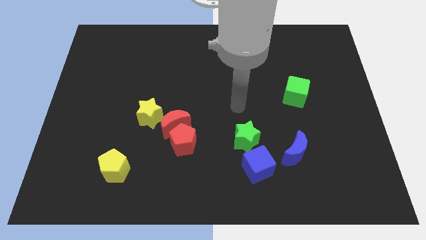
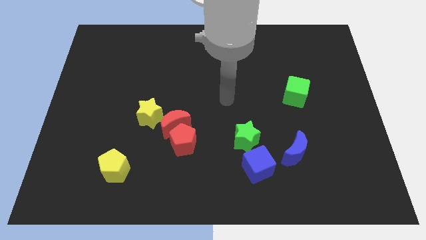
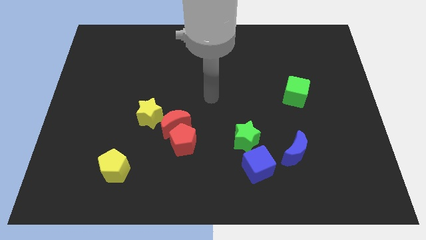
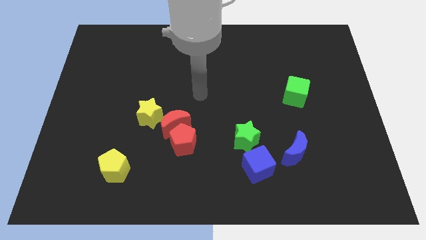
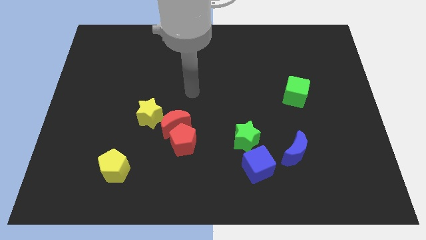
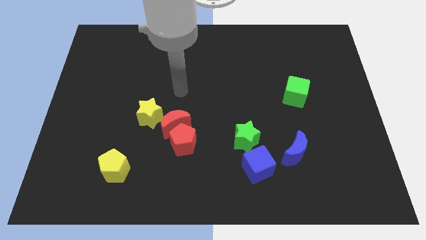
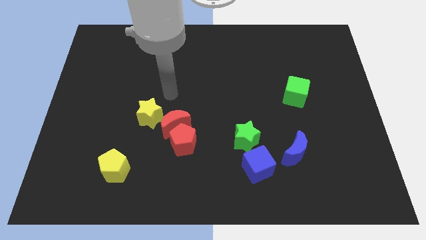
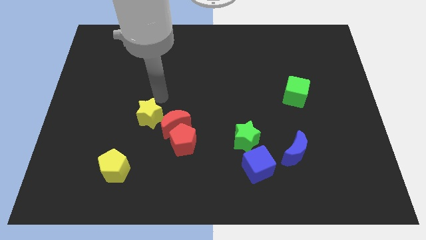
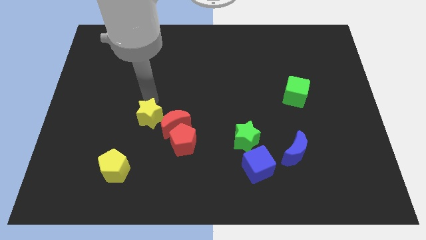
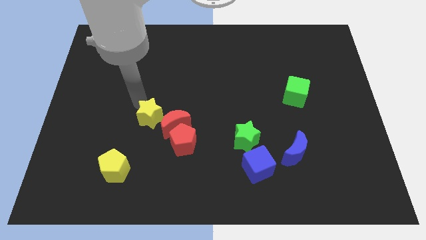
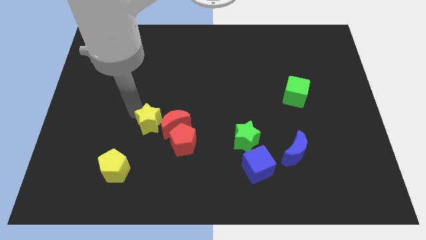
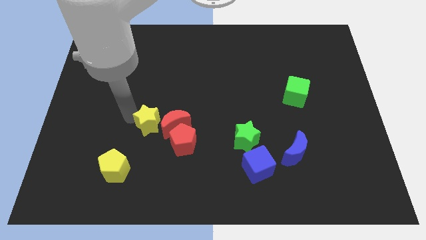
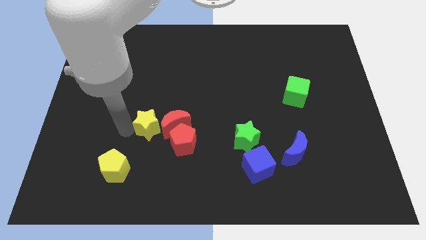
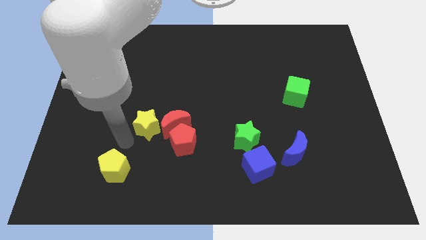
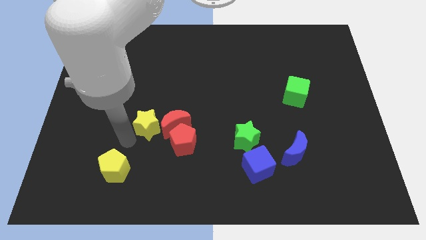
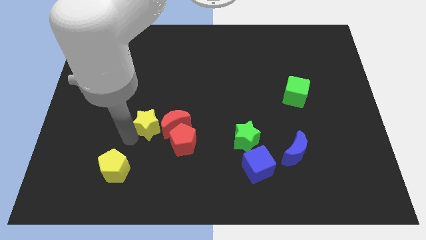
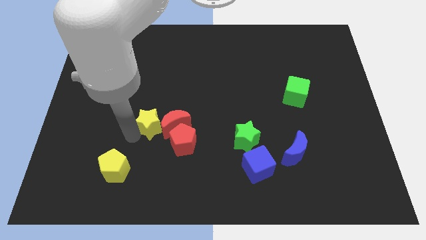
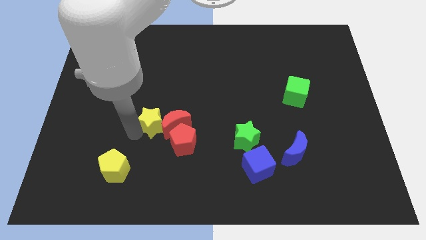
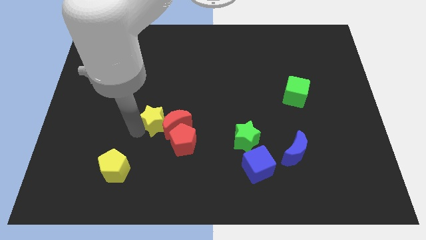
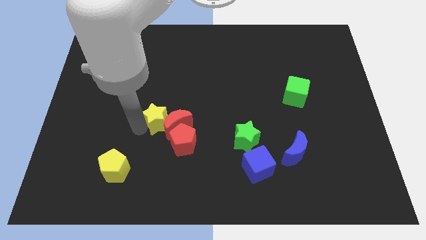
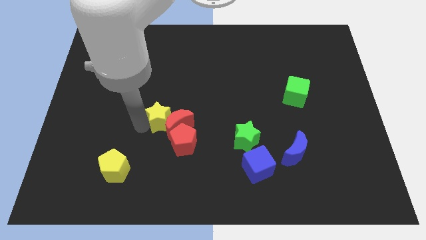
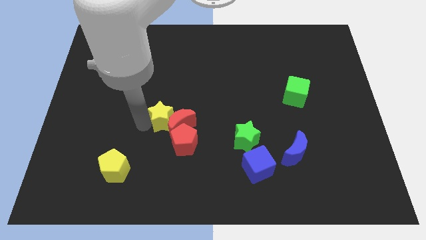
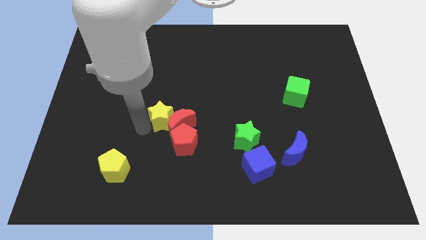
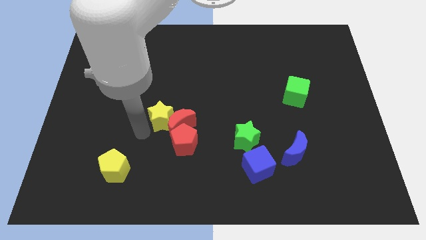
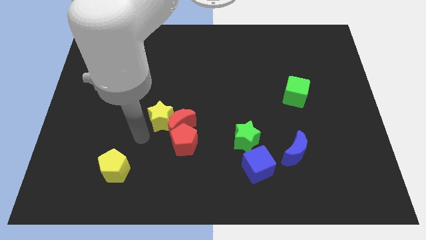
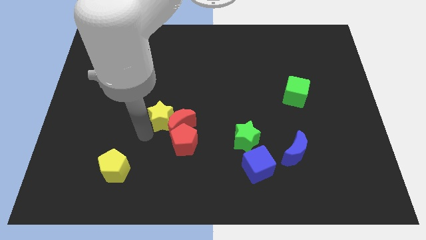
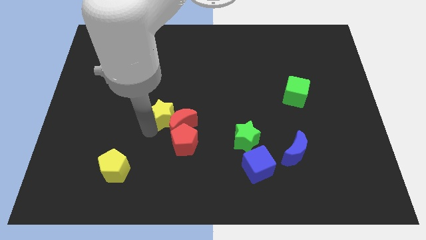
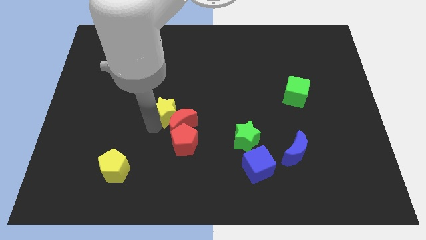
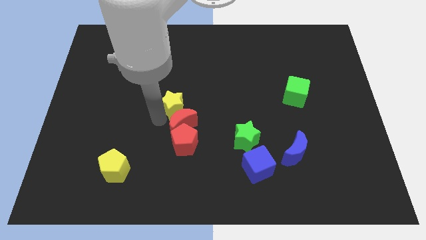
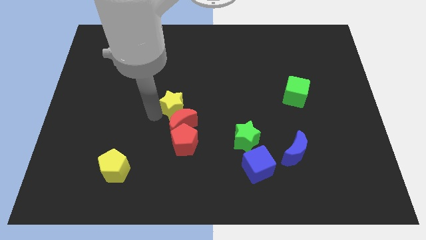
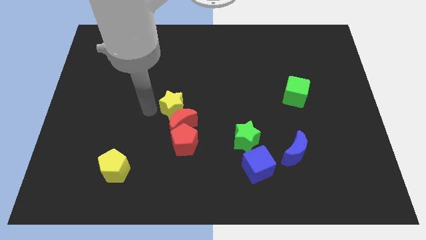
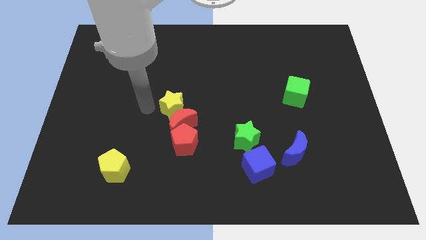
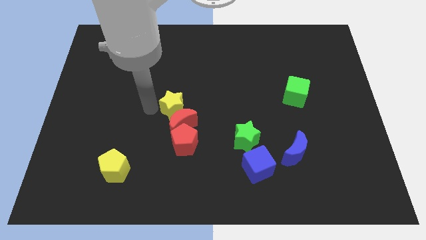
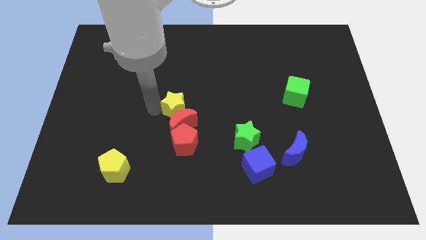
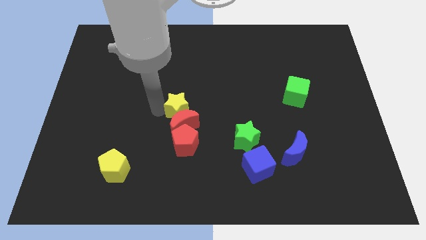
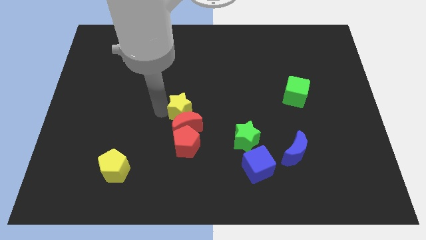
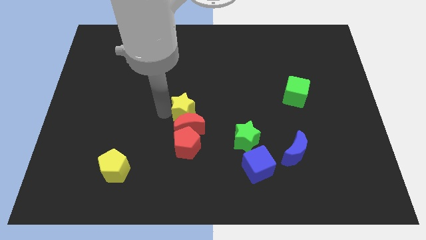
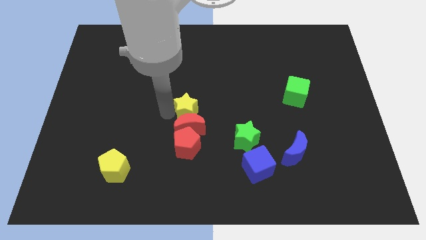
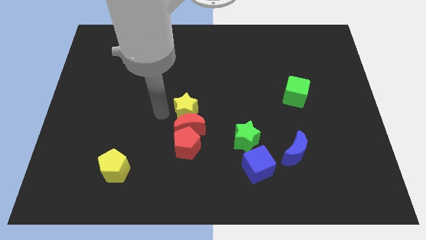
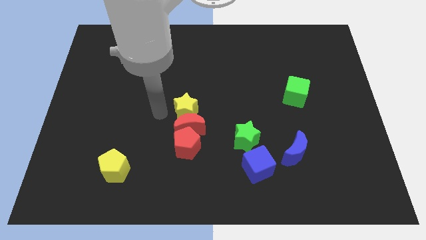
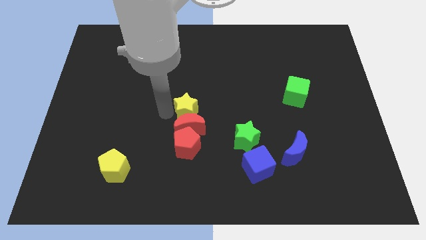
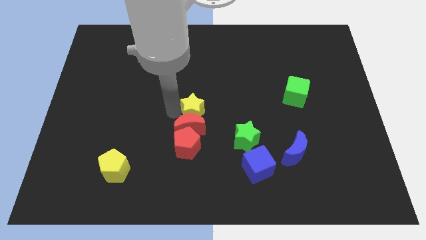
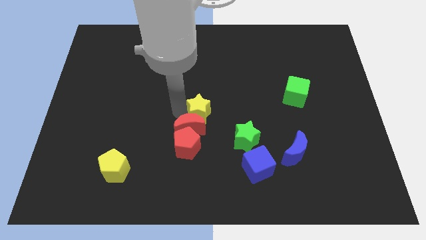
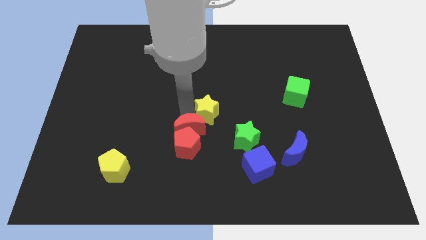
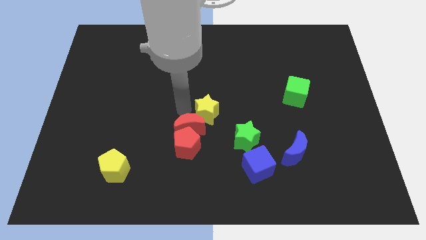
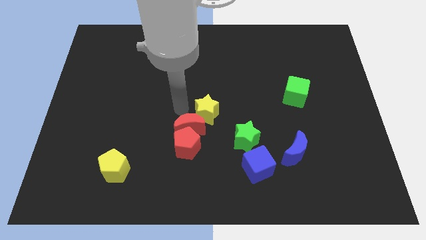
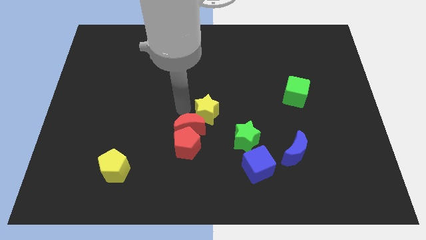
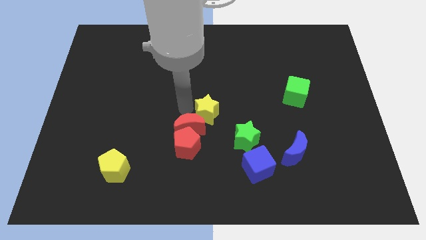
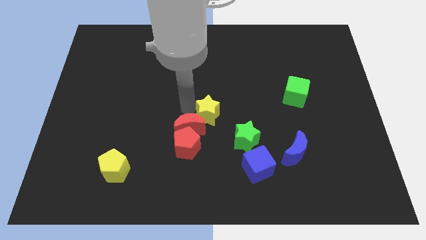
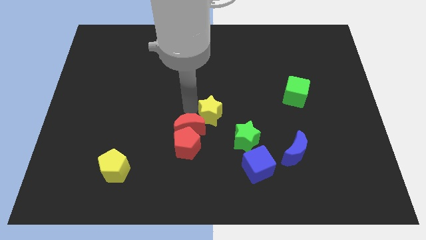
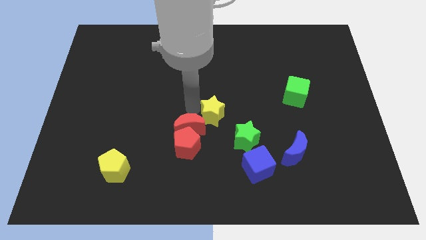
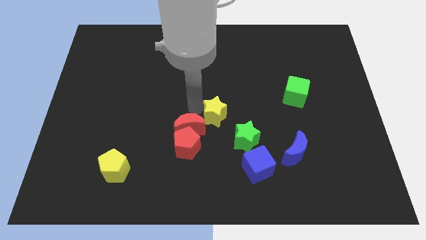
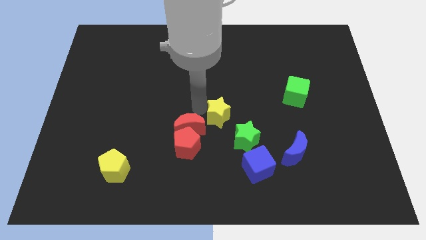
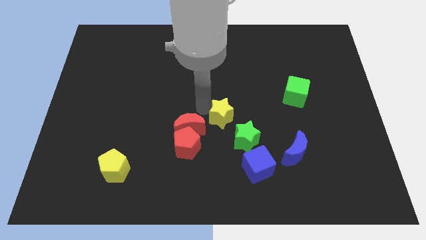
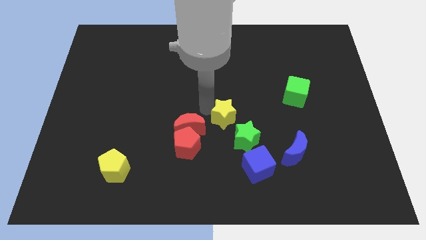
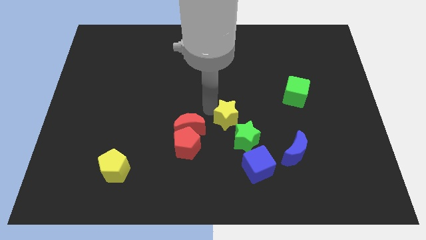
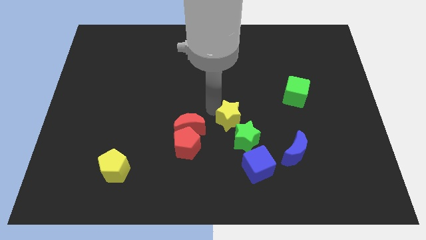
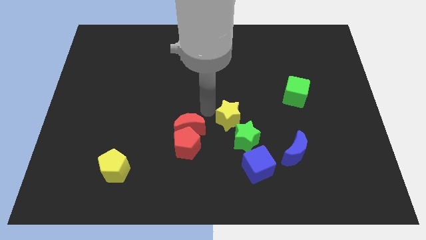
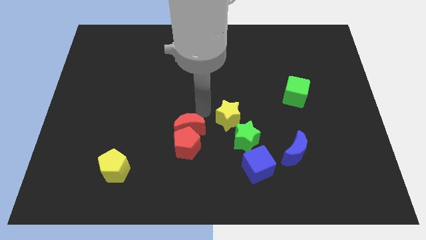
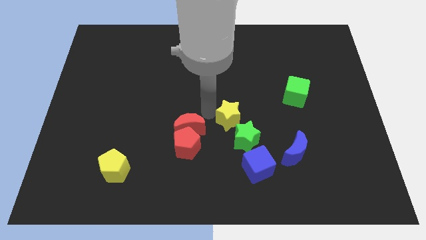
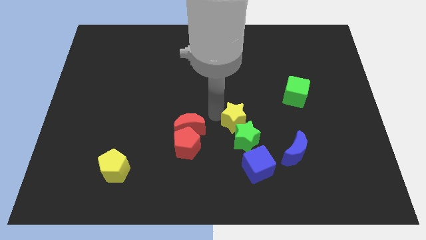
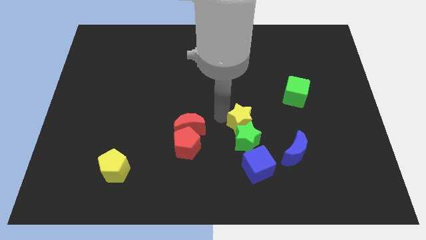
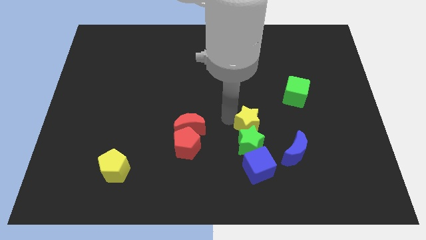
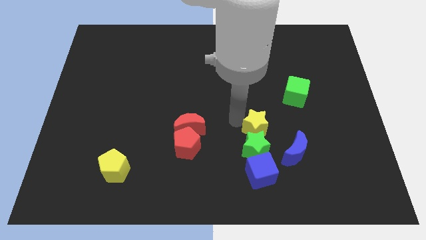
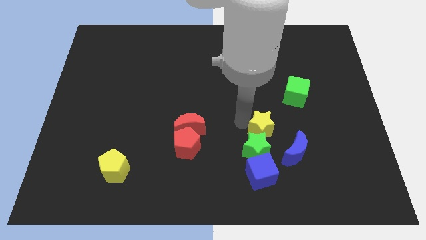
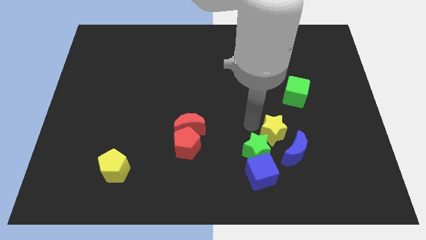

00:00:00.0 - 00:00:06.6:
put the yellow star to the right side of the green star

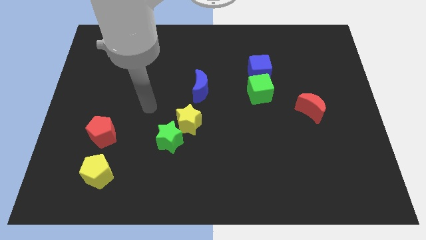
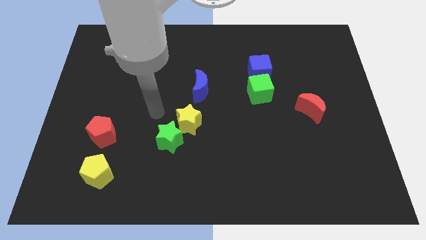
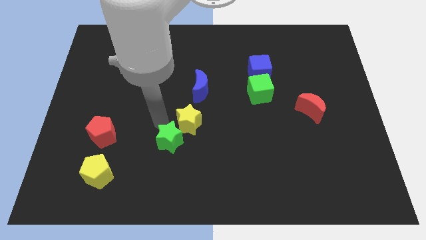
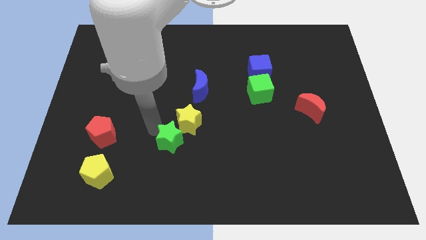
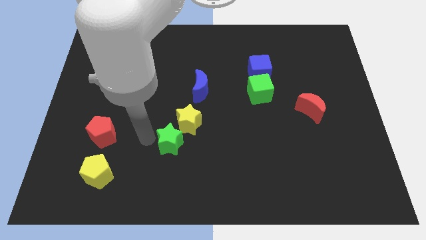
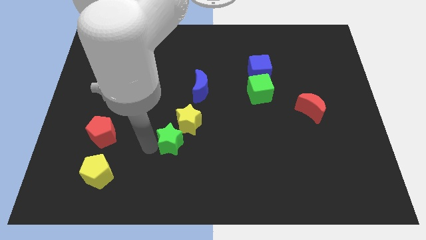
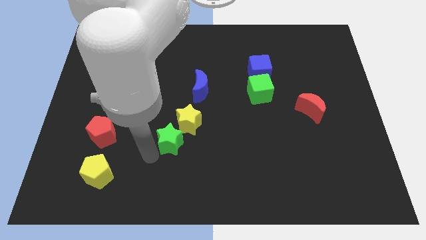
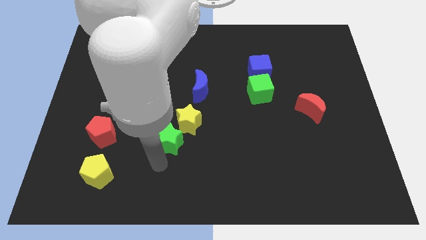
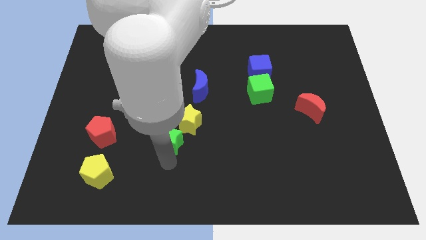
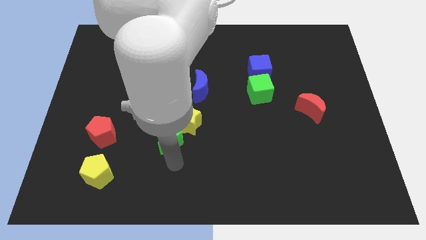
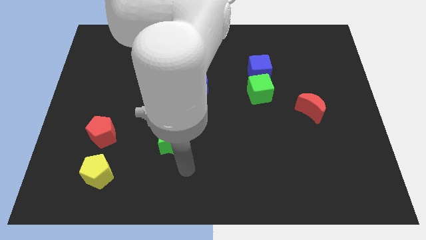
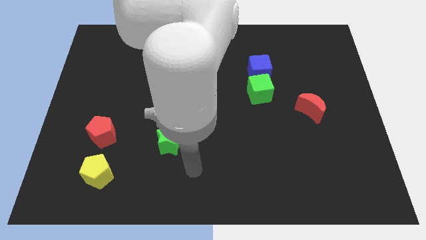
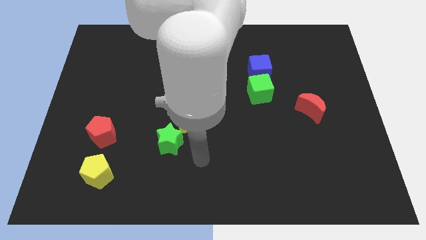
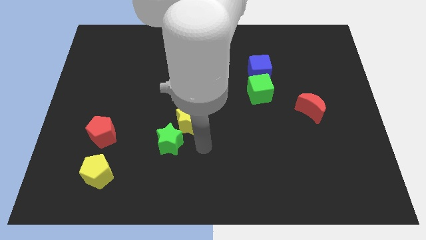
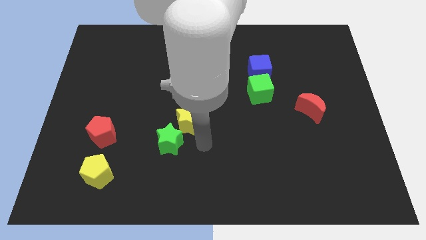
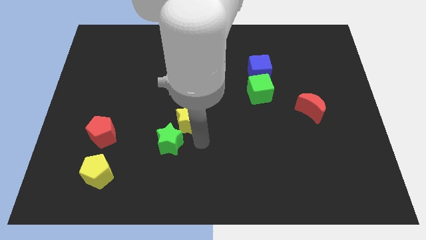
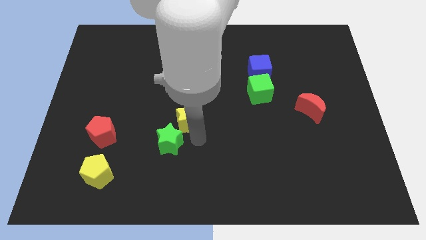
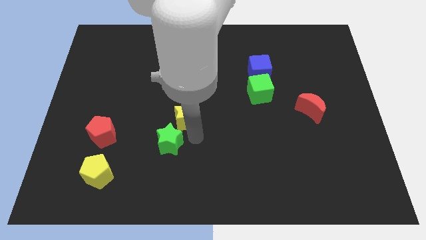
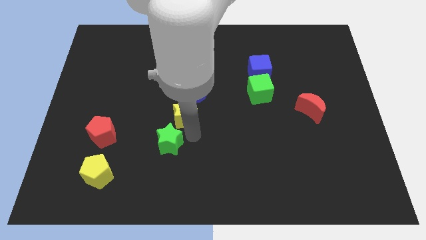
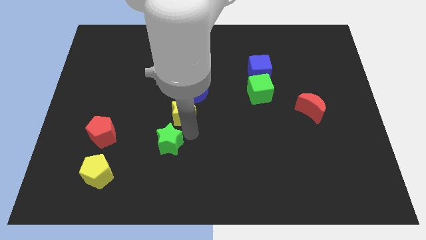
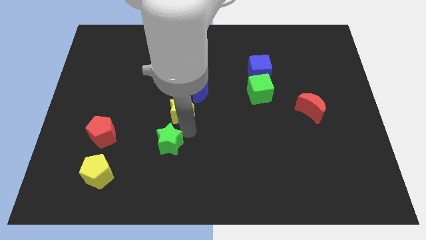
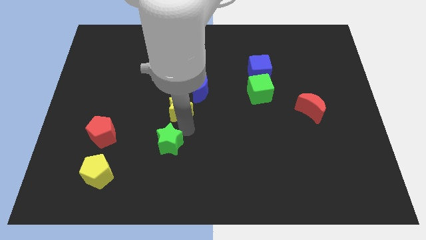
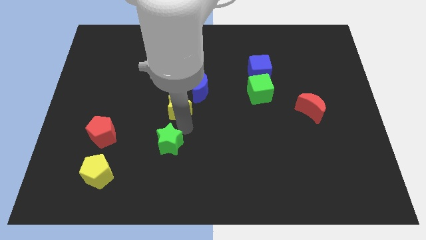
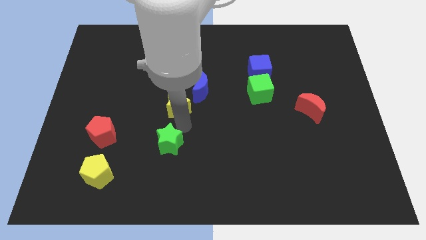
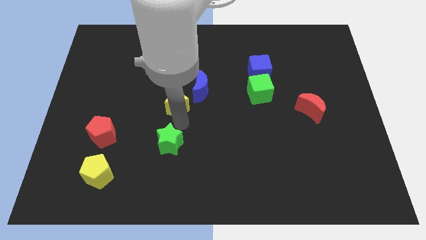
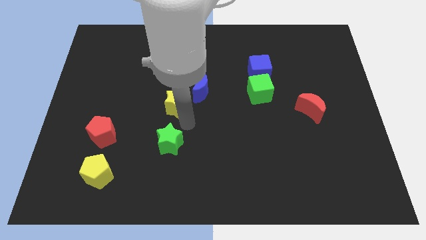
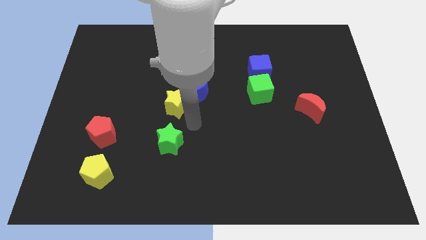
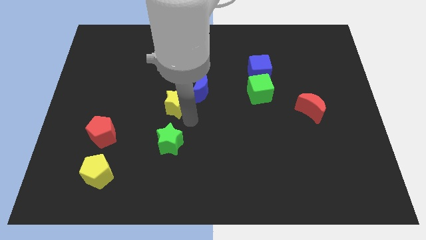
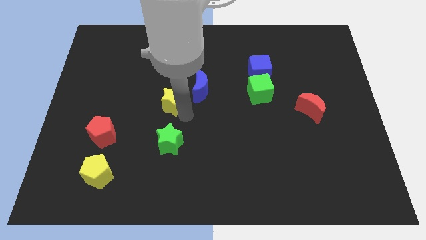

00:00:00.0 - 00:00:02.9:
move the yellow star left of the blue moon
